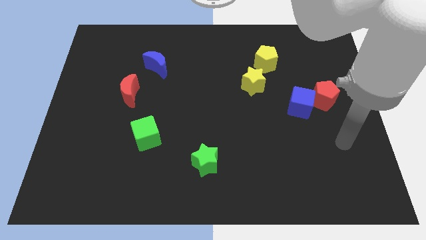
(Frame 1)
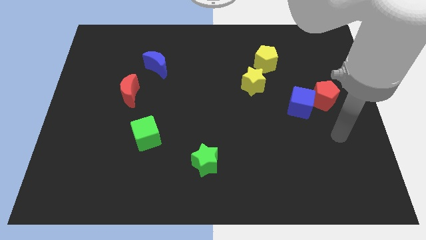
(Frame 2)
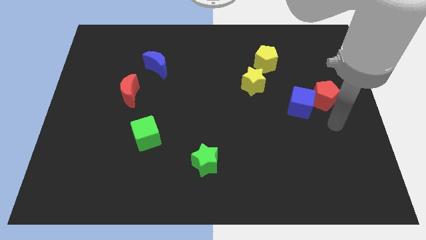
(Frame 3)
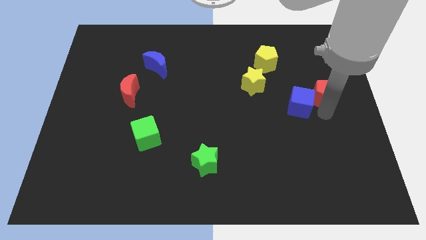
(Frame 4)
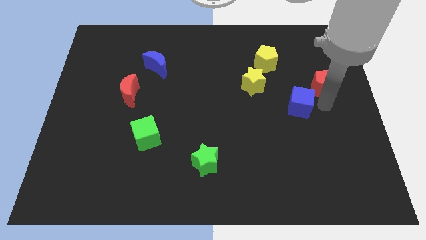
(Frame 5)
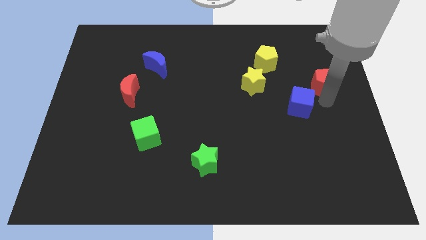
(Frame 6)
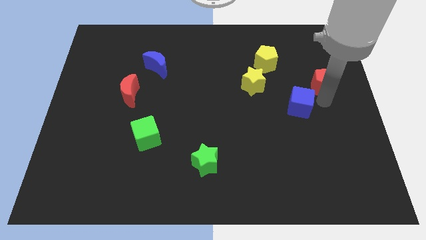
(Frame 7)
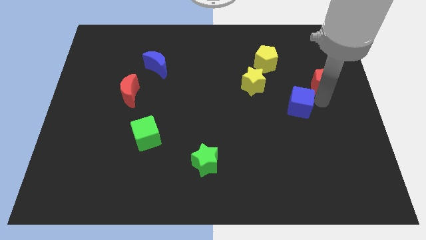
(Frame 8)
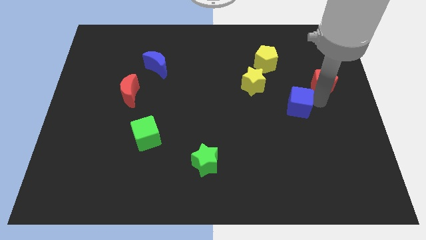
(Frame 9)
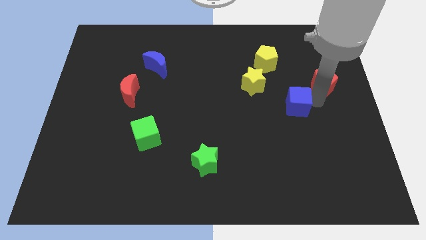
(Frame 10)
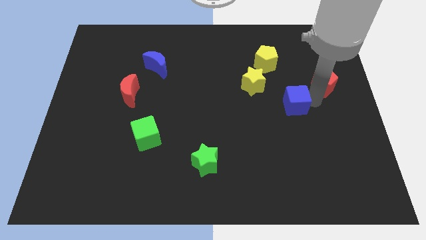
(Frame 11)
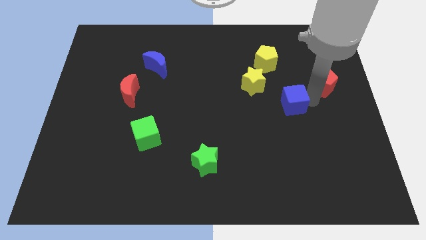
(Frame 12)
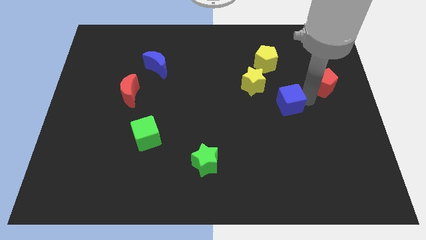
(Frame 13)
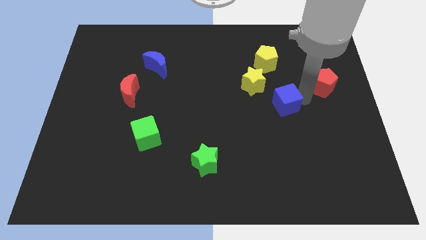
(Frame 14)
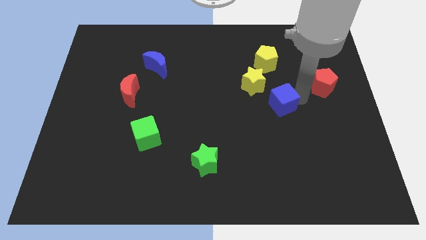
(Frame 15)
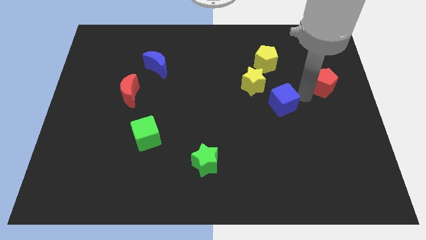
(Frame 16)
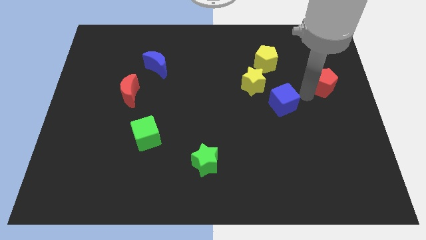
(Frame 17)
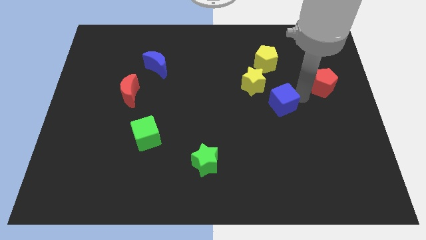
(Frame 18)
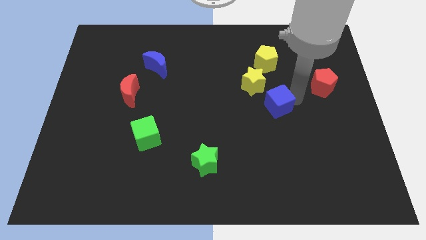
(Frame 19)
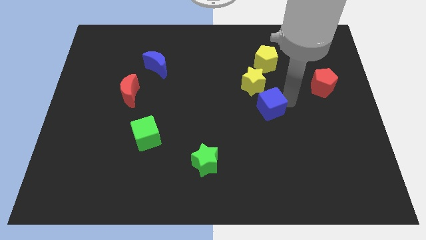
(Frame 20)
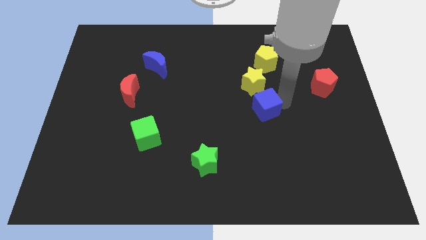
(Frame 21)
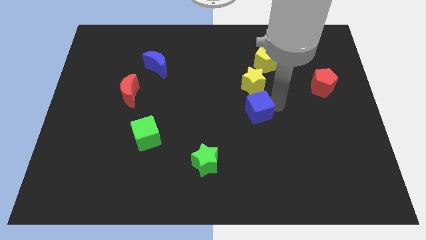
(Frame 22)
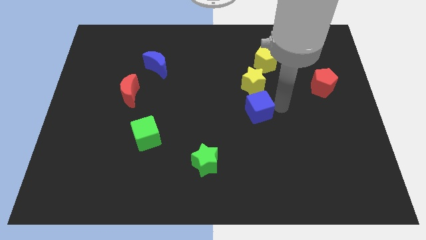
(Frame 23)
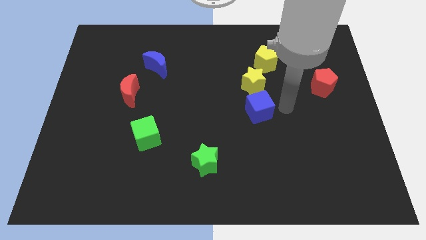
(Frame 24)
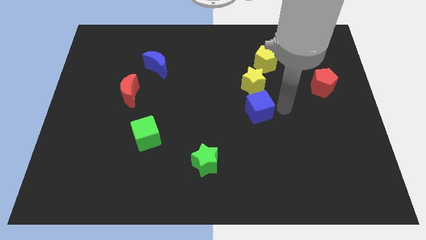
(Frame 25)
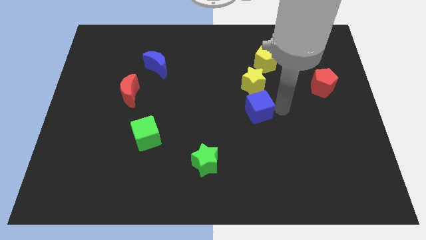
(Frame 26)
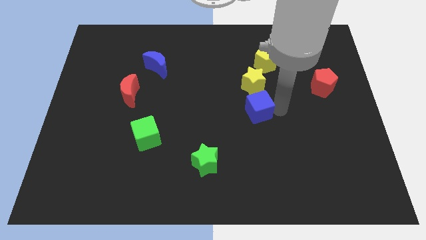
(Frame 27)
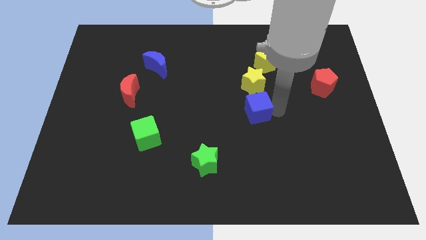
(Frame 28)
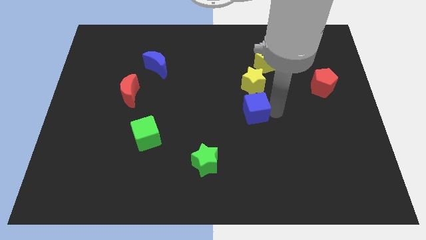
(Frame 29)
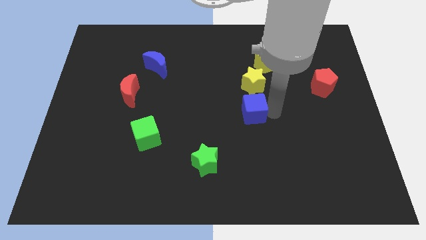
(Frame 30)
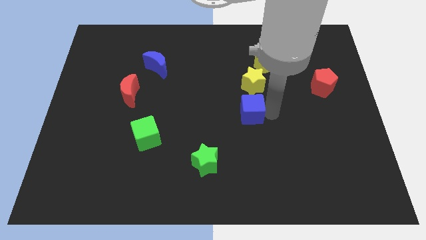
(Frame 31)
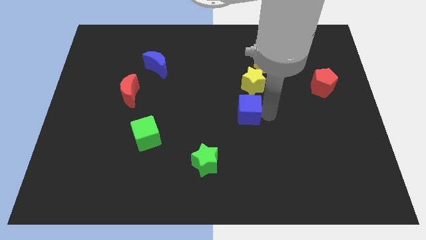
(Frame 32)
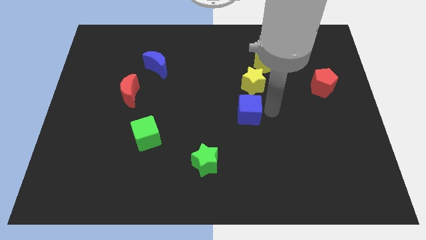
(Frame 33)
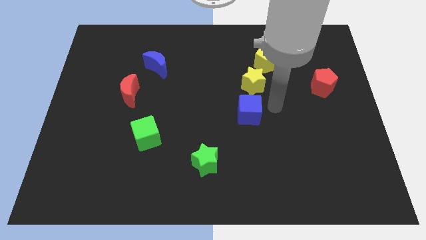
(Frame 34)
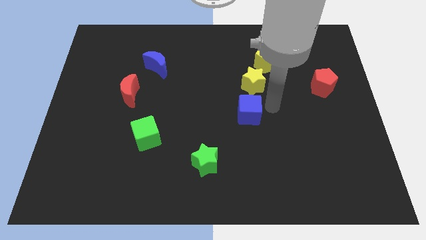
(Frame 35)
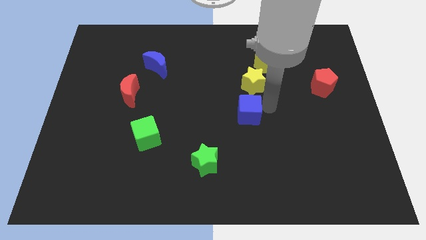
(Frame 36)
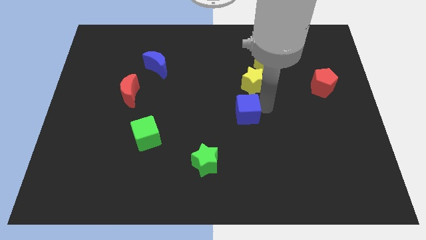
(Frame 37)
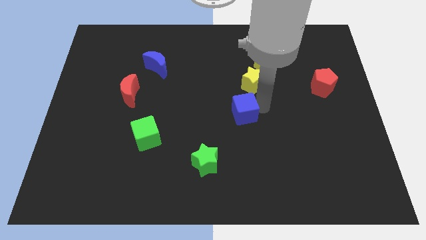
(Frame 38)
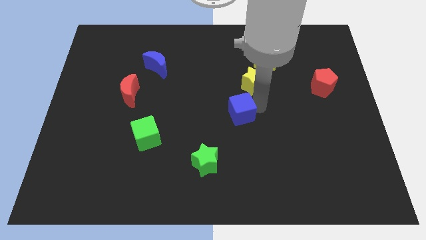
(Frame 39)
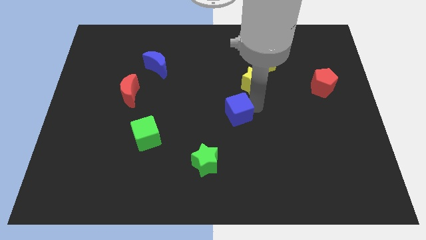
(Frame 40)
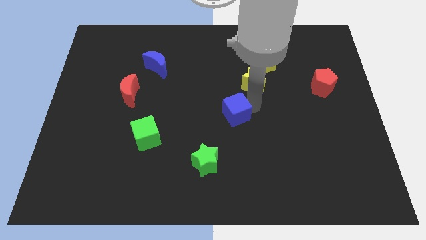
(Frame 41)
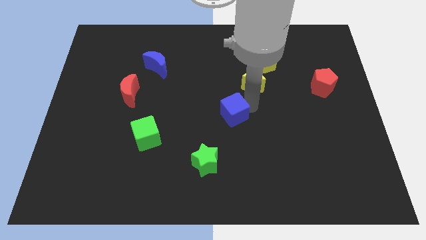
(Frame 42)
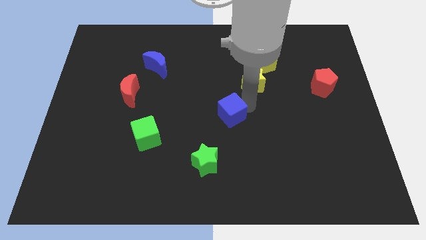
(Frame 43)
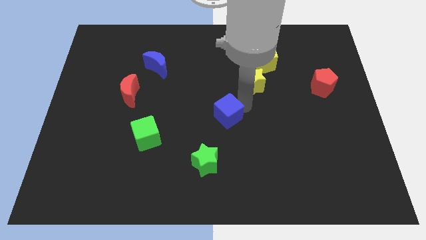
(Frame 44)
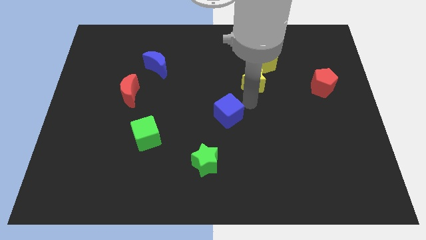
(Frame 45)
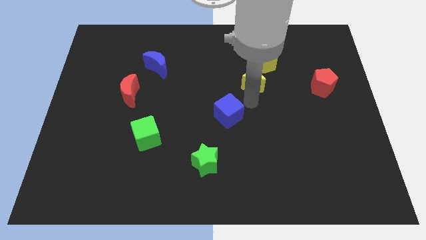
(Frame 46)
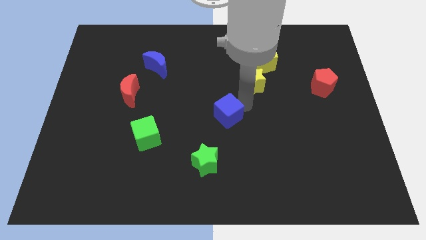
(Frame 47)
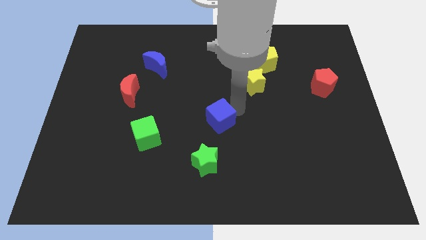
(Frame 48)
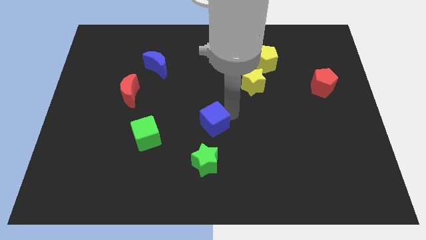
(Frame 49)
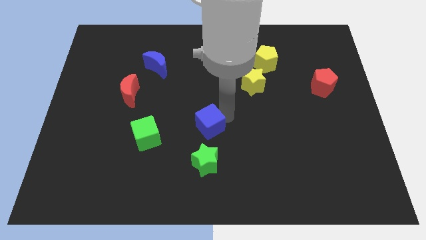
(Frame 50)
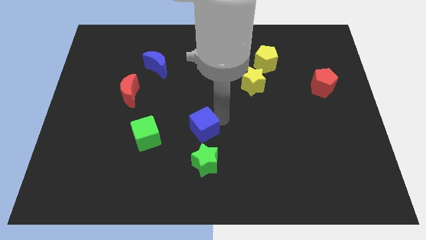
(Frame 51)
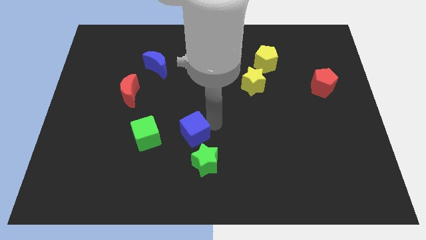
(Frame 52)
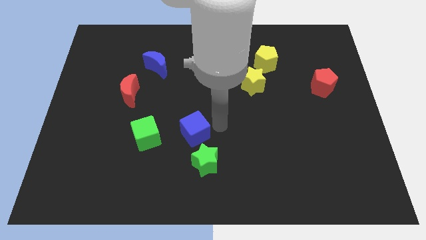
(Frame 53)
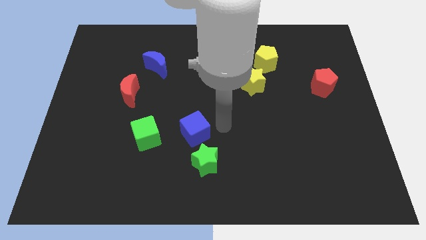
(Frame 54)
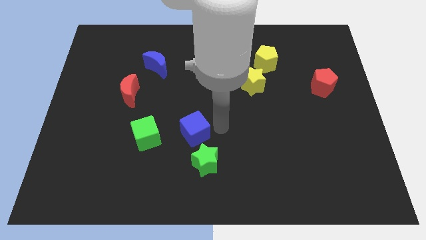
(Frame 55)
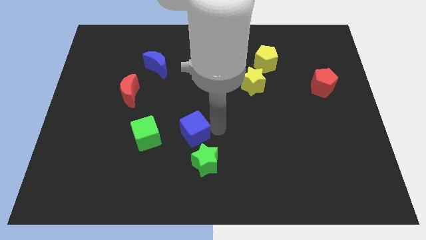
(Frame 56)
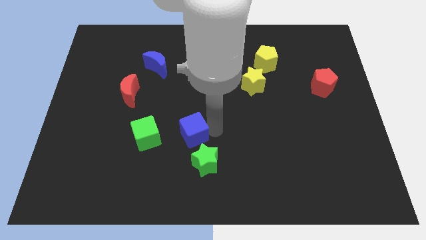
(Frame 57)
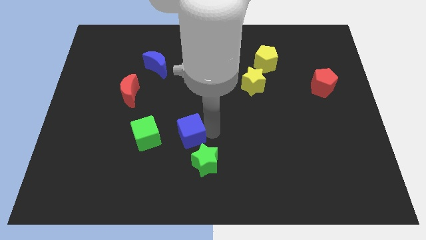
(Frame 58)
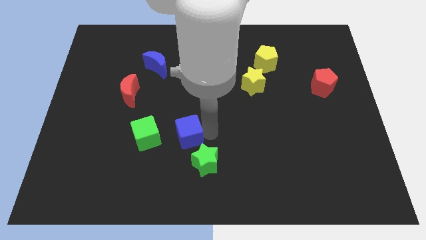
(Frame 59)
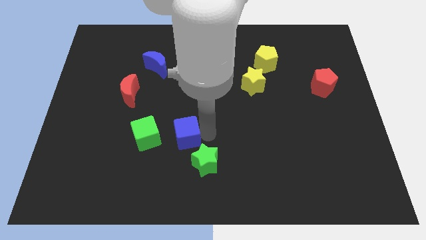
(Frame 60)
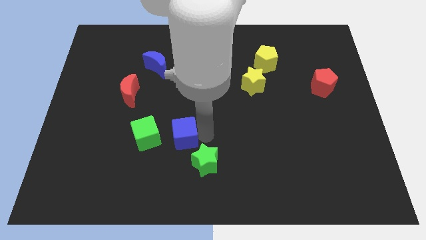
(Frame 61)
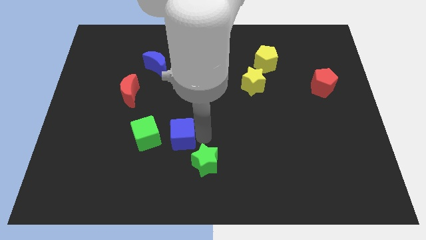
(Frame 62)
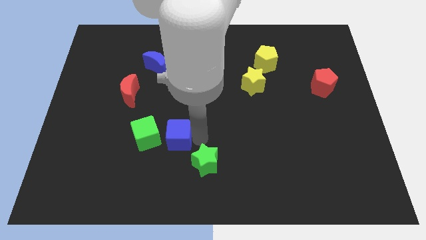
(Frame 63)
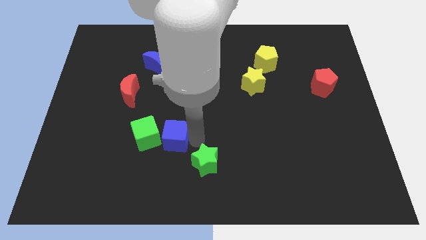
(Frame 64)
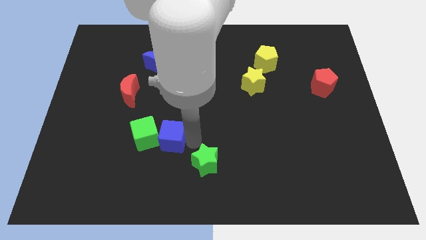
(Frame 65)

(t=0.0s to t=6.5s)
move the blue cube next to the green cube

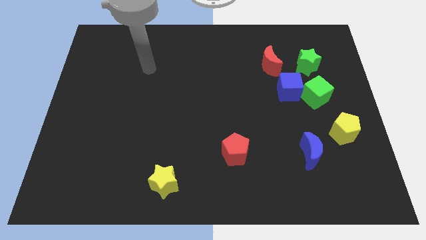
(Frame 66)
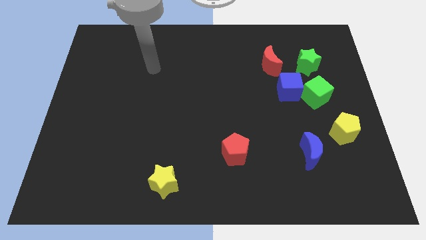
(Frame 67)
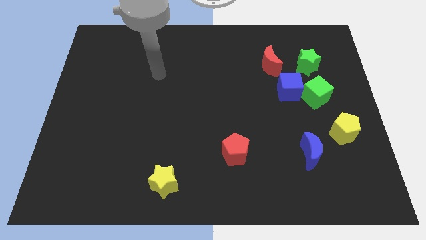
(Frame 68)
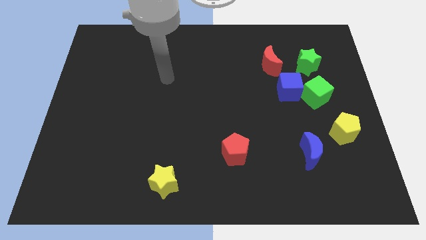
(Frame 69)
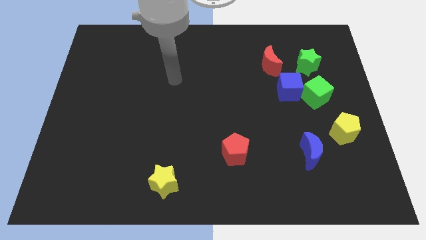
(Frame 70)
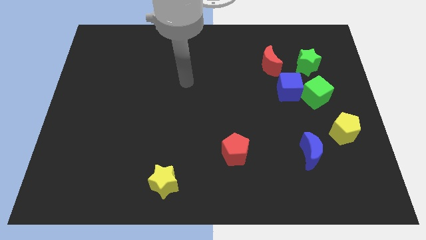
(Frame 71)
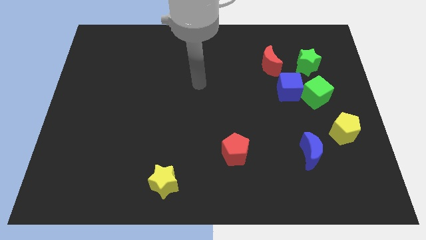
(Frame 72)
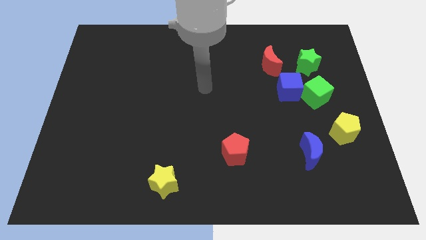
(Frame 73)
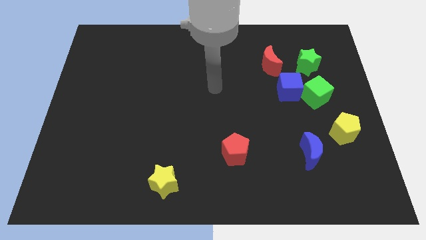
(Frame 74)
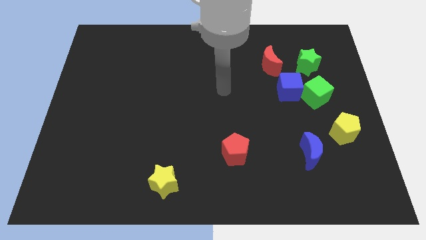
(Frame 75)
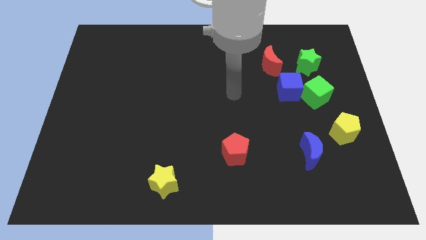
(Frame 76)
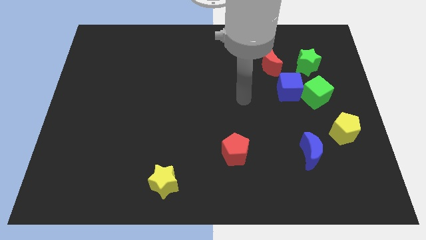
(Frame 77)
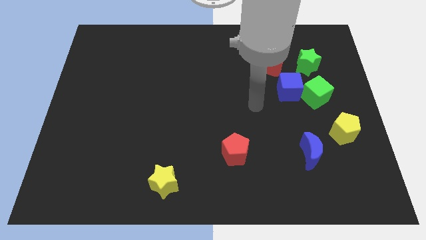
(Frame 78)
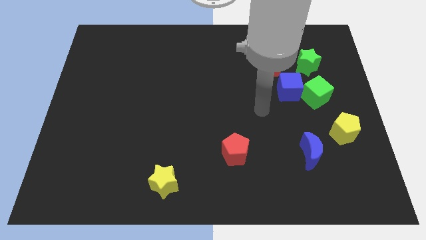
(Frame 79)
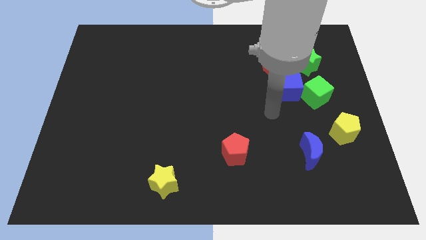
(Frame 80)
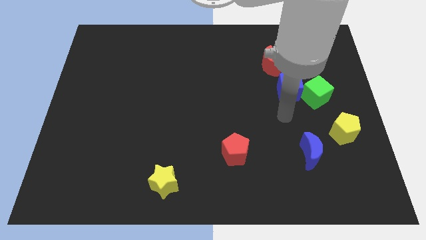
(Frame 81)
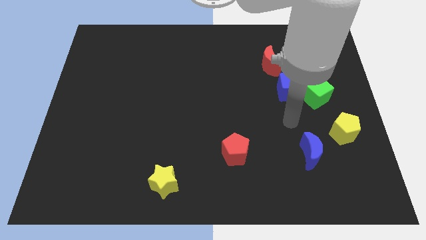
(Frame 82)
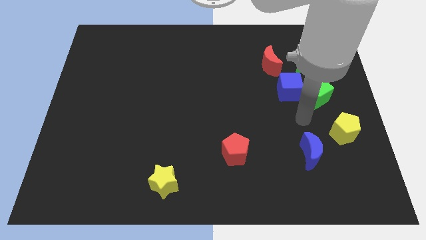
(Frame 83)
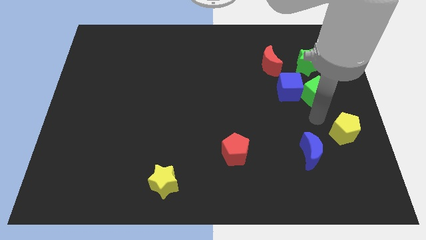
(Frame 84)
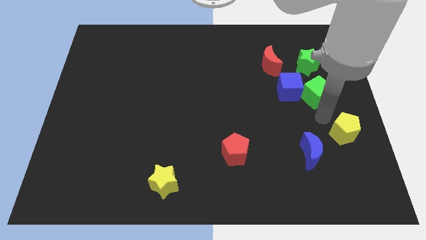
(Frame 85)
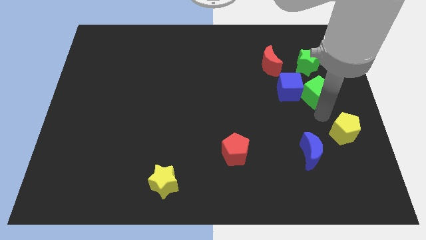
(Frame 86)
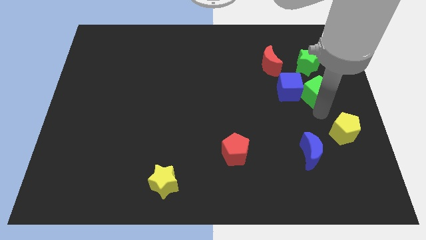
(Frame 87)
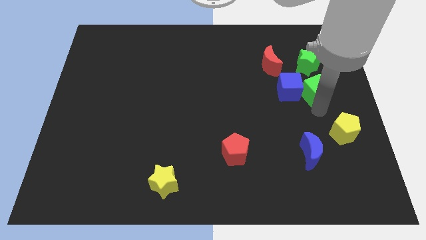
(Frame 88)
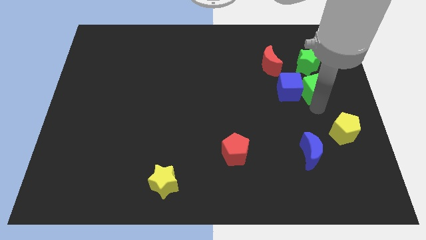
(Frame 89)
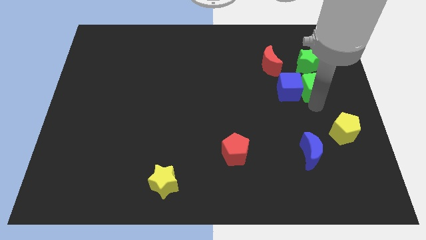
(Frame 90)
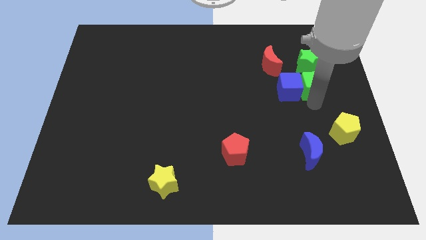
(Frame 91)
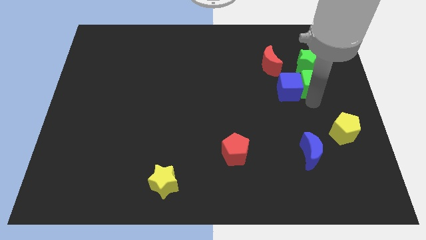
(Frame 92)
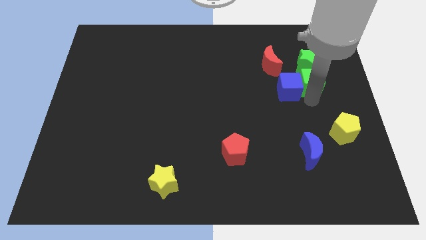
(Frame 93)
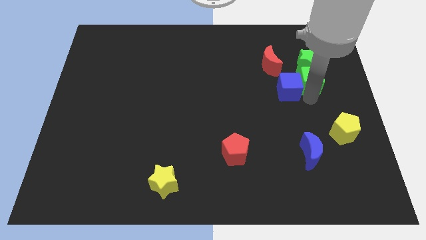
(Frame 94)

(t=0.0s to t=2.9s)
put the green cube next to the green star
